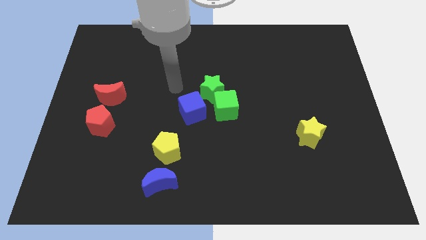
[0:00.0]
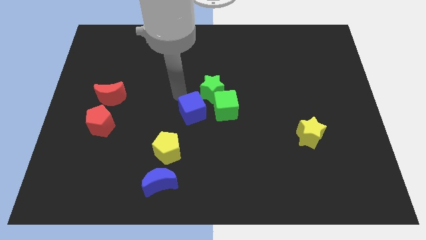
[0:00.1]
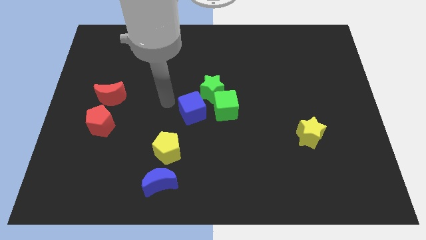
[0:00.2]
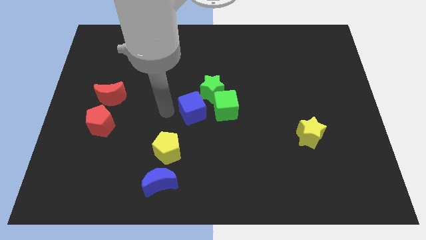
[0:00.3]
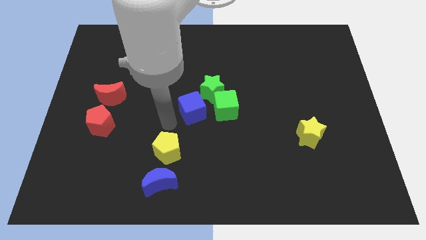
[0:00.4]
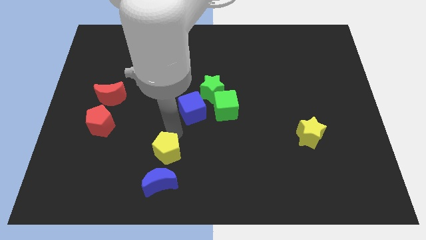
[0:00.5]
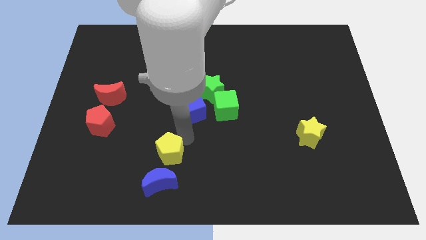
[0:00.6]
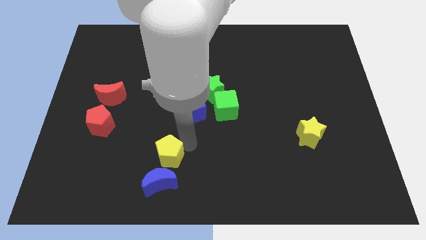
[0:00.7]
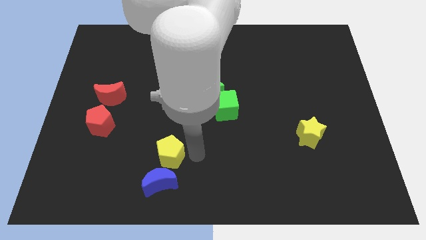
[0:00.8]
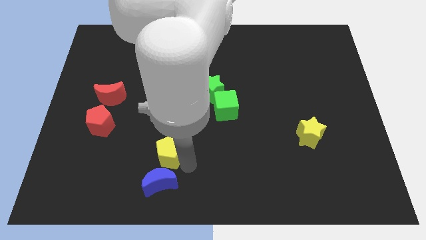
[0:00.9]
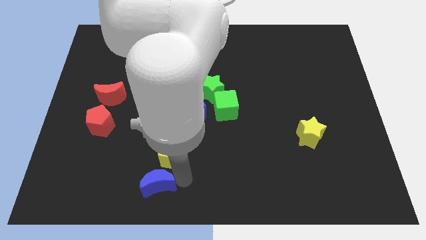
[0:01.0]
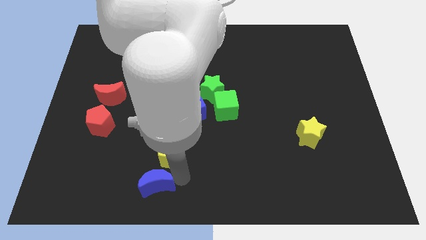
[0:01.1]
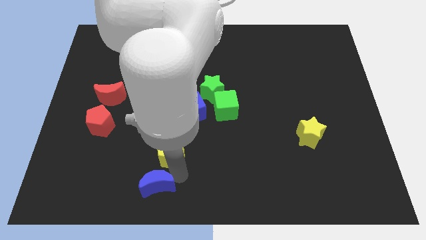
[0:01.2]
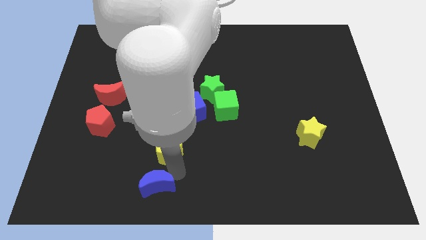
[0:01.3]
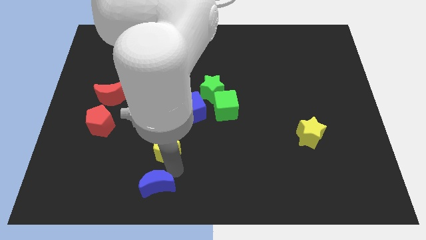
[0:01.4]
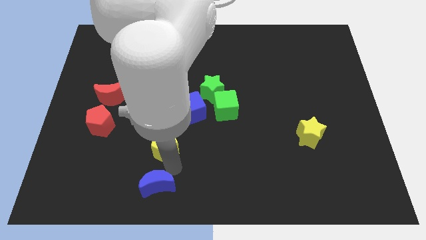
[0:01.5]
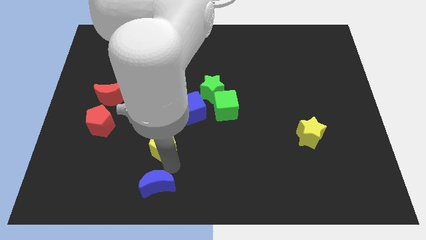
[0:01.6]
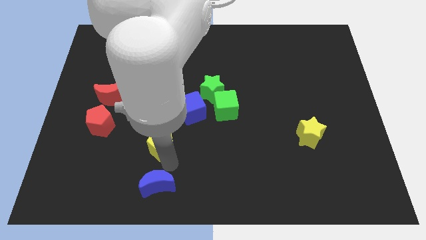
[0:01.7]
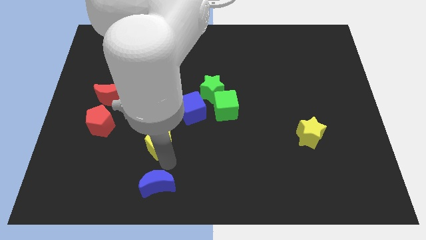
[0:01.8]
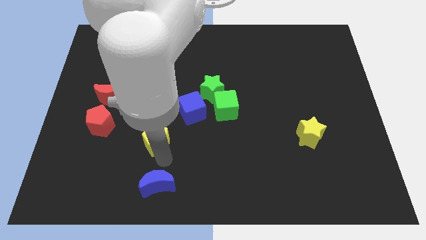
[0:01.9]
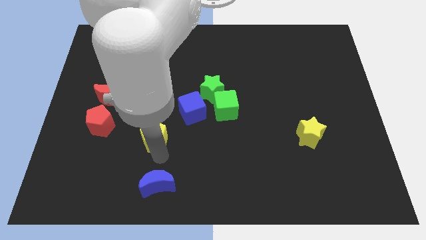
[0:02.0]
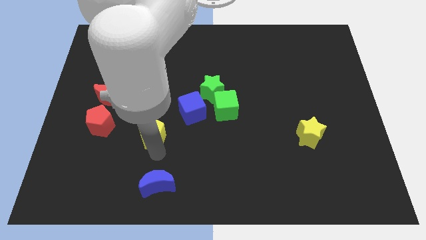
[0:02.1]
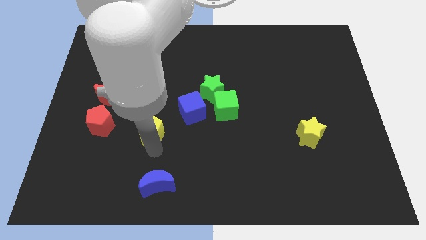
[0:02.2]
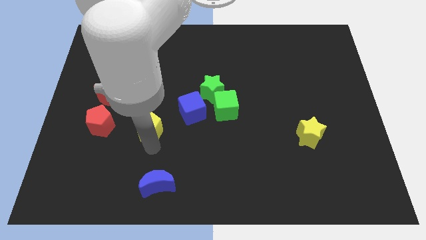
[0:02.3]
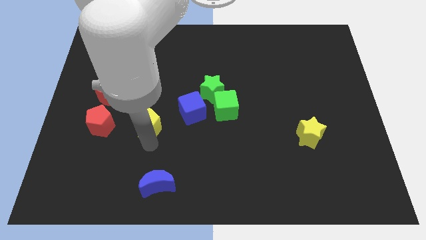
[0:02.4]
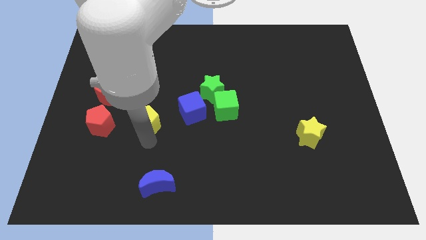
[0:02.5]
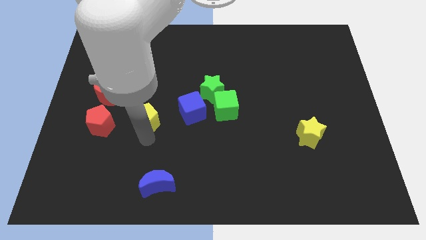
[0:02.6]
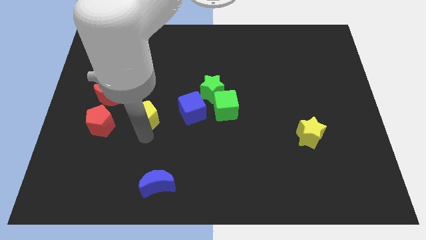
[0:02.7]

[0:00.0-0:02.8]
slide the yellow pentagon a little bit up

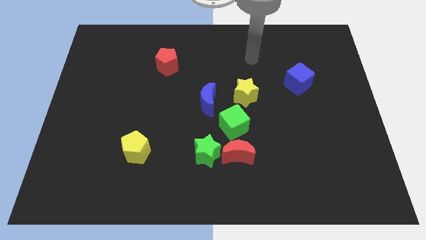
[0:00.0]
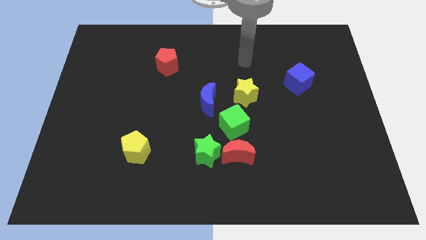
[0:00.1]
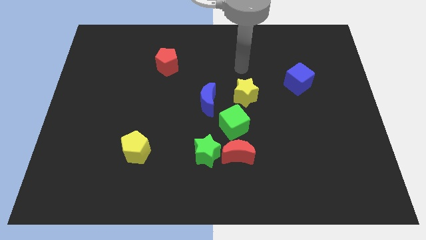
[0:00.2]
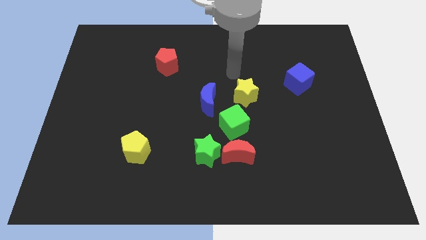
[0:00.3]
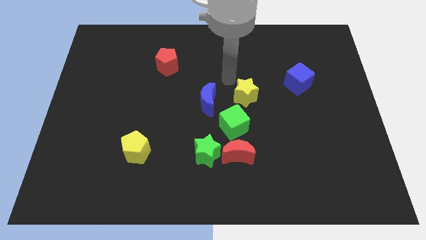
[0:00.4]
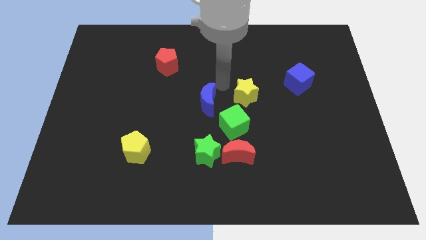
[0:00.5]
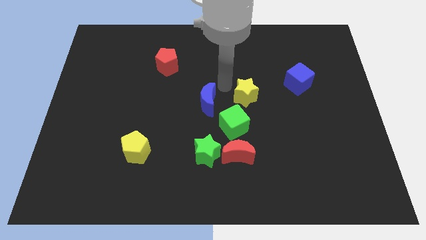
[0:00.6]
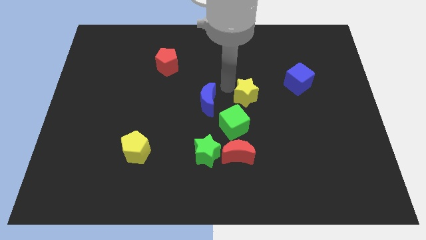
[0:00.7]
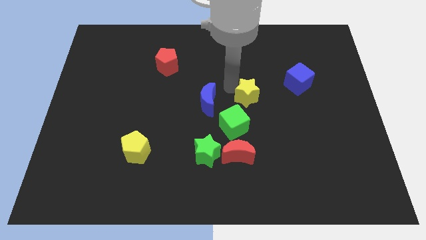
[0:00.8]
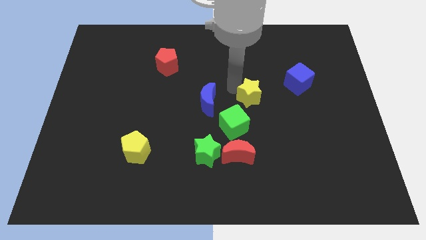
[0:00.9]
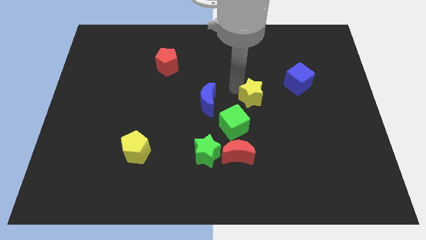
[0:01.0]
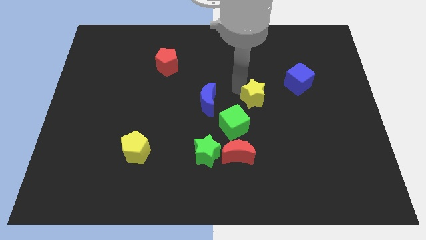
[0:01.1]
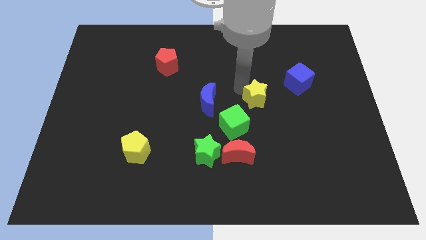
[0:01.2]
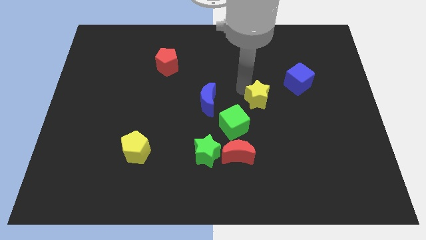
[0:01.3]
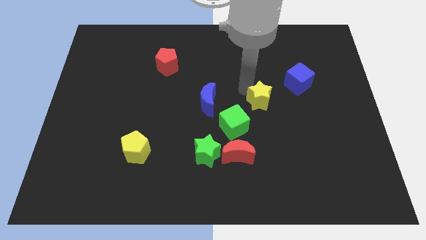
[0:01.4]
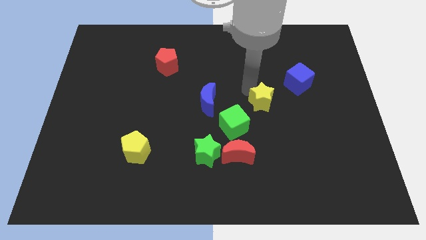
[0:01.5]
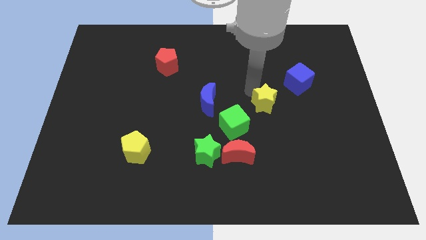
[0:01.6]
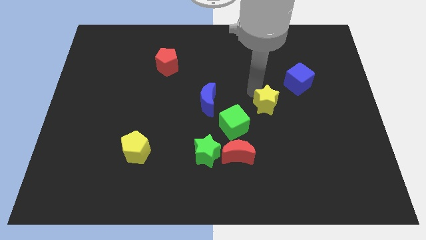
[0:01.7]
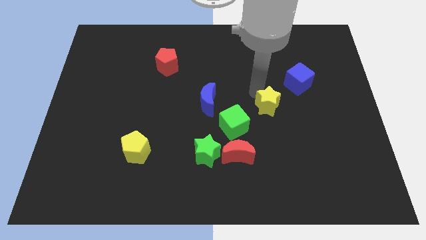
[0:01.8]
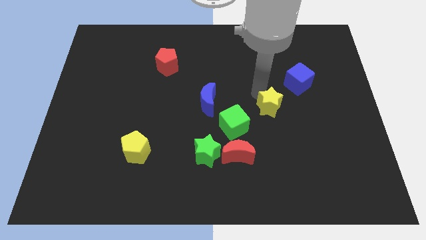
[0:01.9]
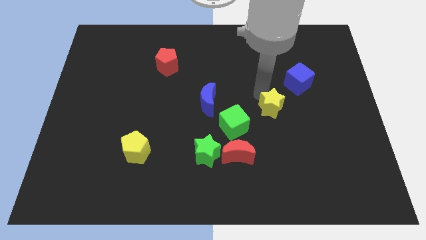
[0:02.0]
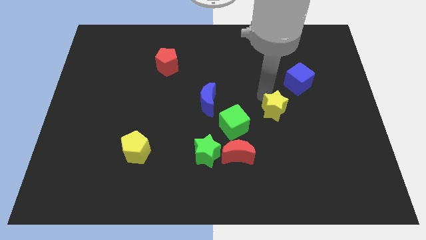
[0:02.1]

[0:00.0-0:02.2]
push the yellow star slightly down and right

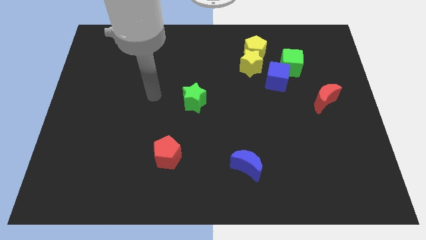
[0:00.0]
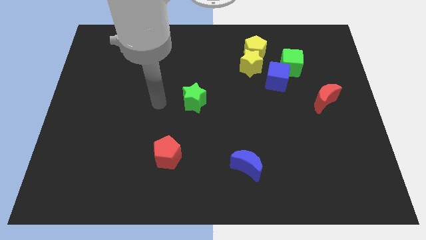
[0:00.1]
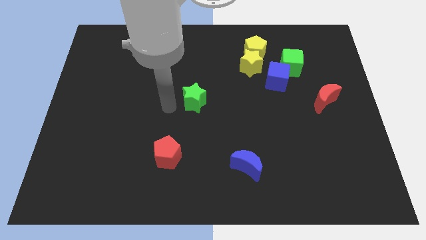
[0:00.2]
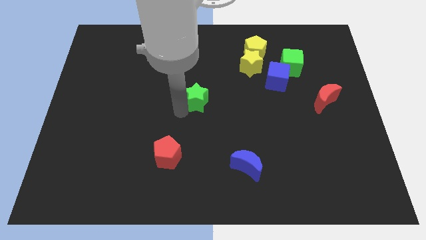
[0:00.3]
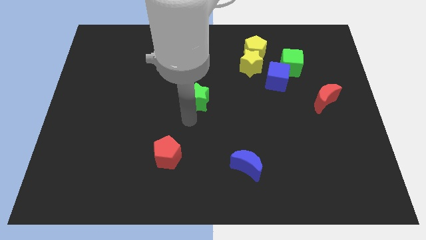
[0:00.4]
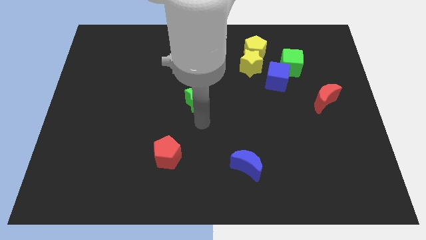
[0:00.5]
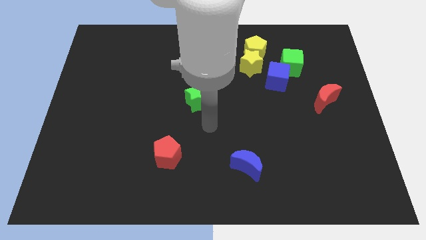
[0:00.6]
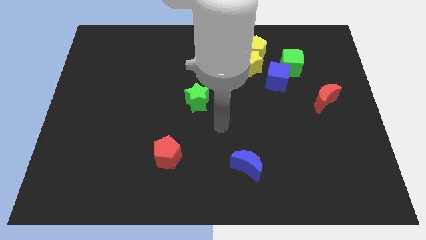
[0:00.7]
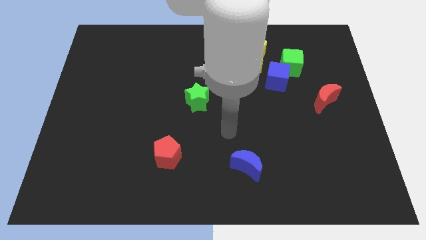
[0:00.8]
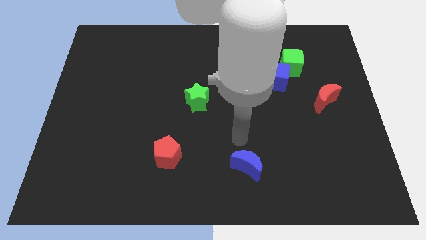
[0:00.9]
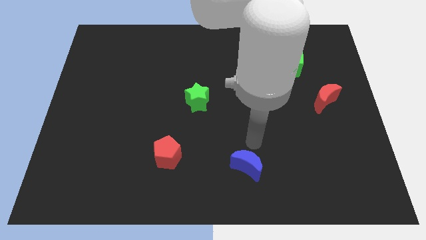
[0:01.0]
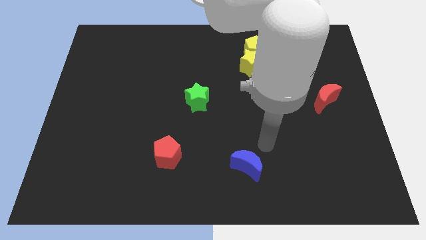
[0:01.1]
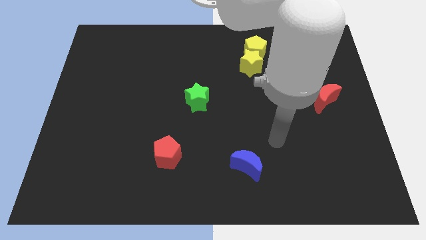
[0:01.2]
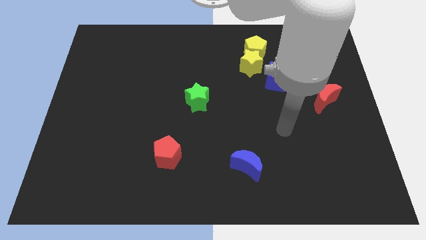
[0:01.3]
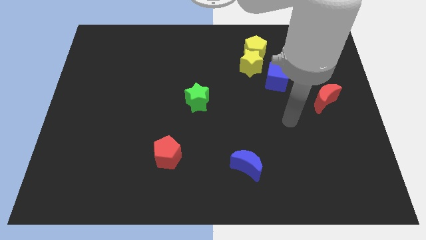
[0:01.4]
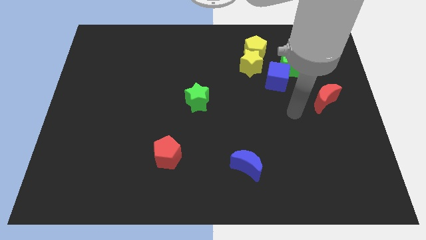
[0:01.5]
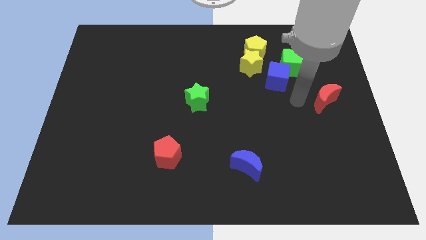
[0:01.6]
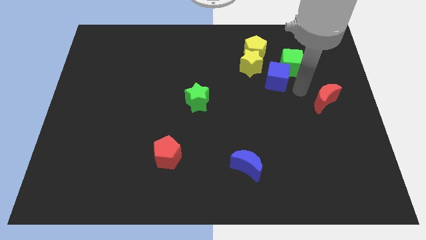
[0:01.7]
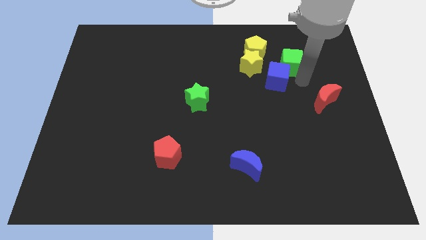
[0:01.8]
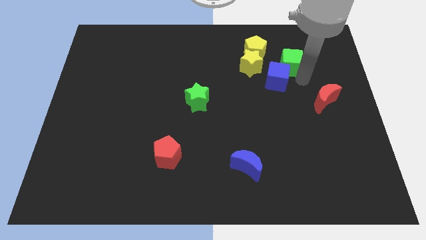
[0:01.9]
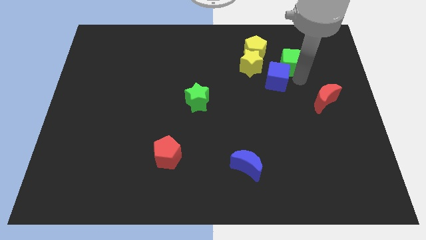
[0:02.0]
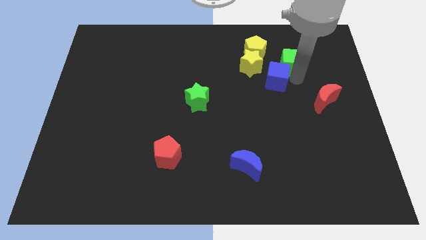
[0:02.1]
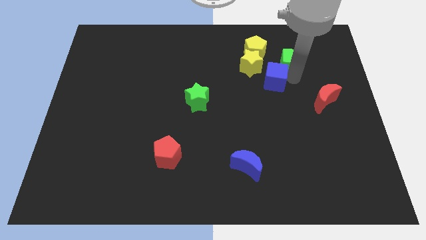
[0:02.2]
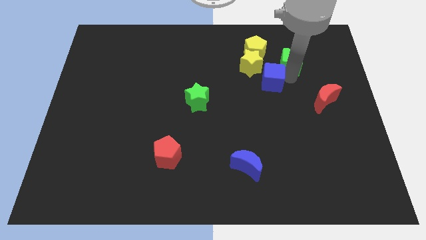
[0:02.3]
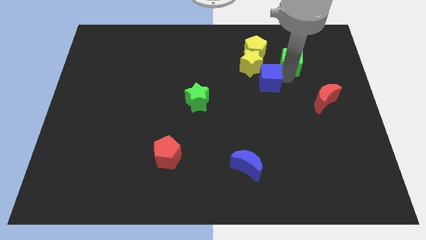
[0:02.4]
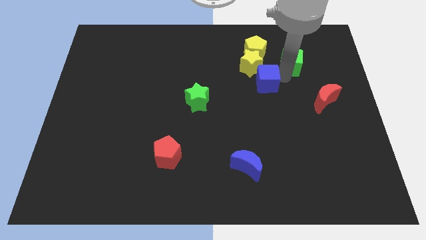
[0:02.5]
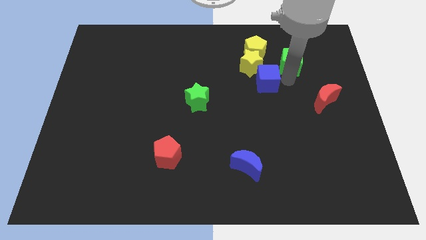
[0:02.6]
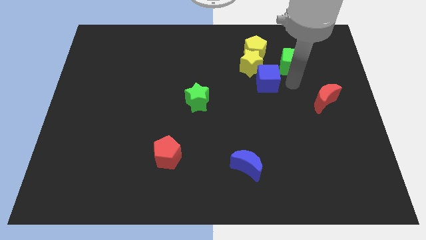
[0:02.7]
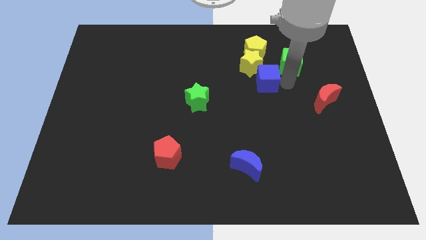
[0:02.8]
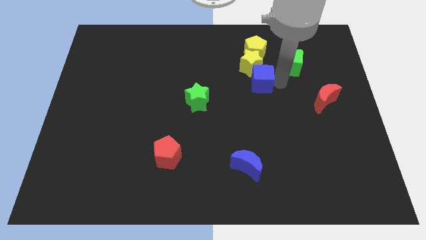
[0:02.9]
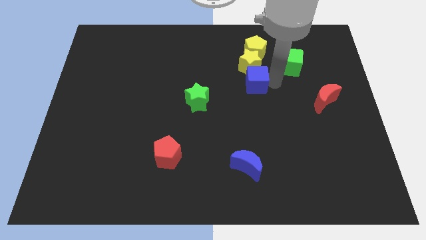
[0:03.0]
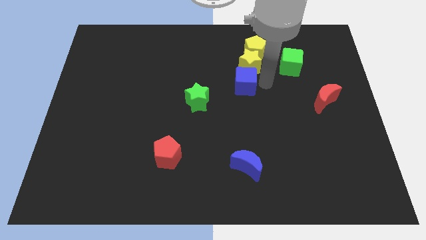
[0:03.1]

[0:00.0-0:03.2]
slightly move the blue cube left
